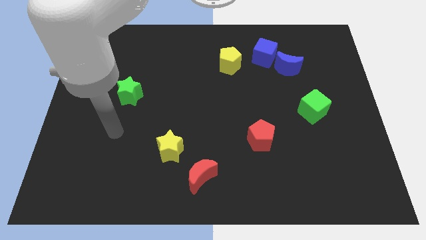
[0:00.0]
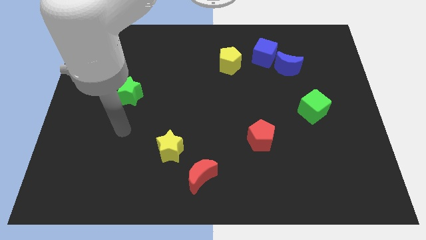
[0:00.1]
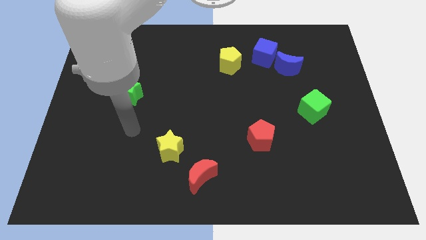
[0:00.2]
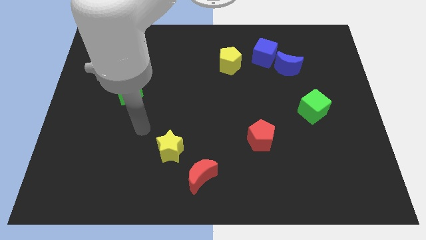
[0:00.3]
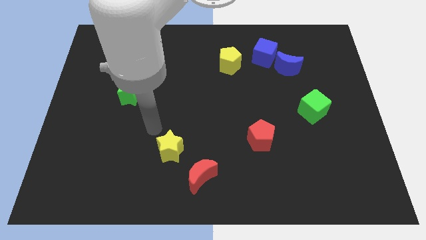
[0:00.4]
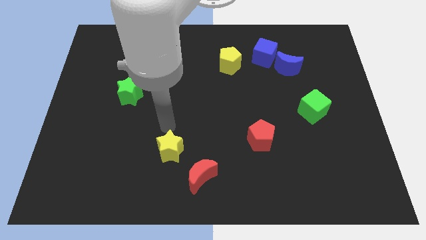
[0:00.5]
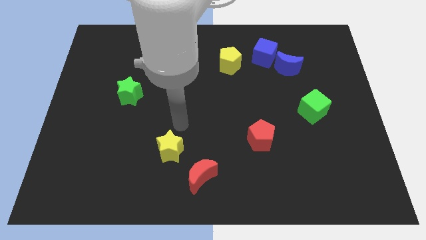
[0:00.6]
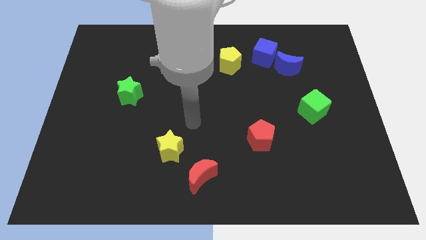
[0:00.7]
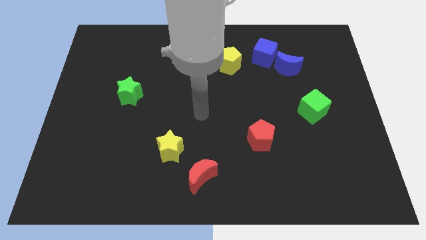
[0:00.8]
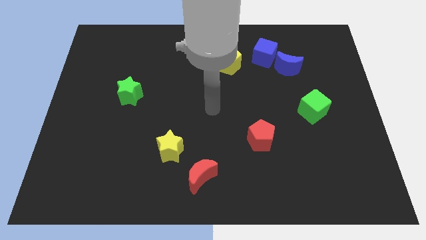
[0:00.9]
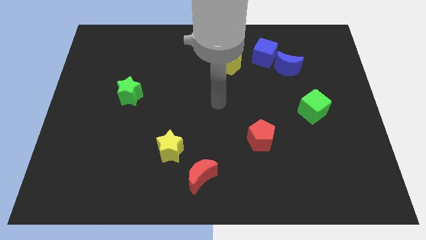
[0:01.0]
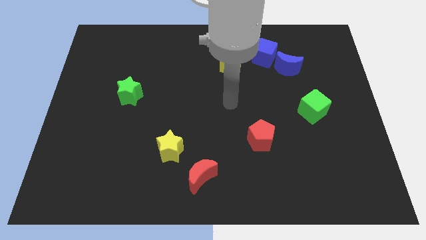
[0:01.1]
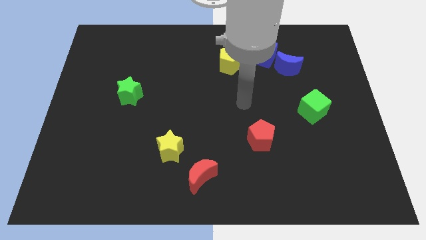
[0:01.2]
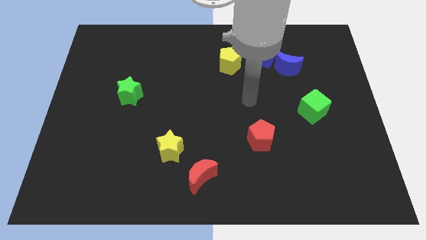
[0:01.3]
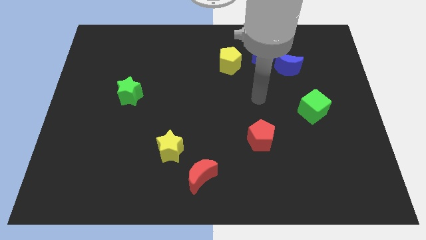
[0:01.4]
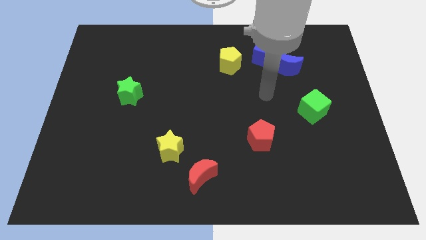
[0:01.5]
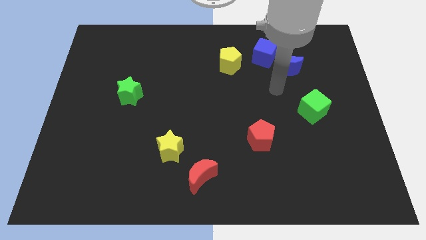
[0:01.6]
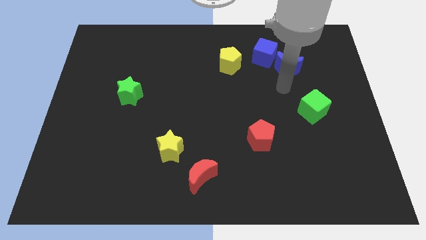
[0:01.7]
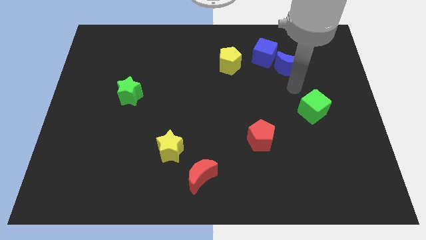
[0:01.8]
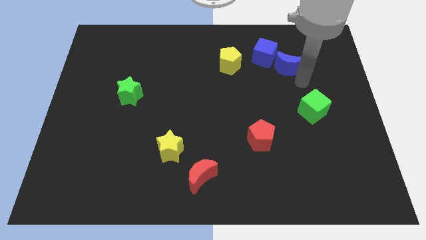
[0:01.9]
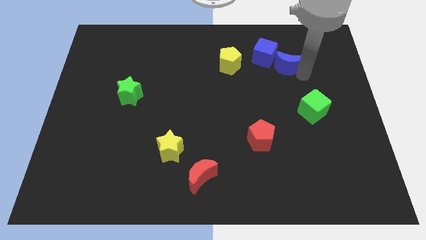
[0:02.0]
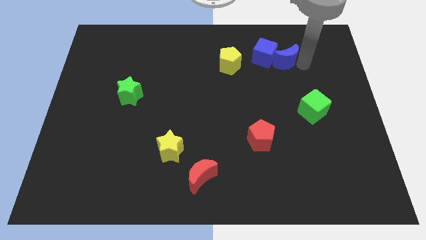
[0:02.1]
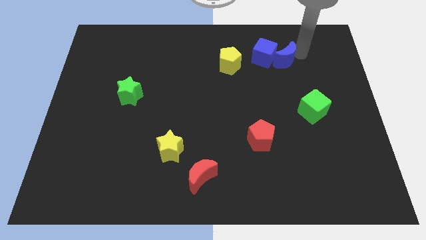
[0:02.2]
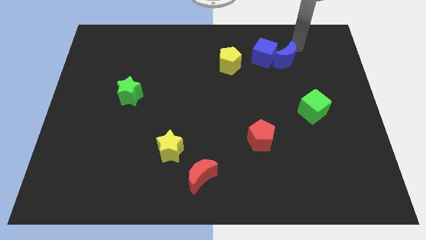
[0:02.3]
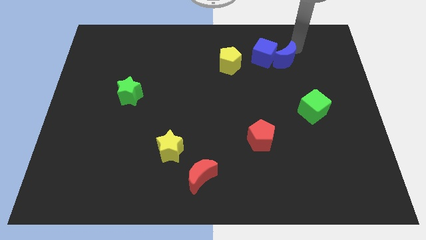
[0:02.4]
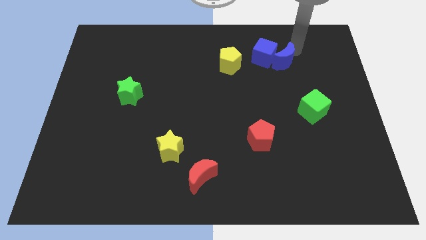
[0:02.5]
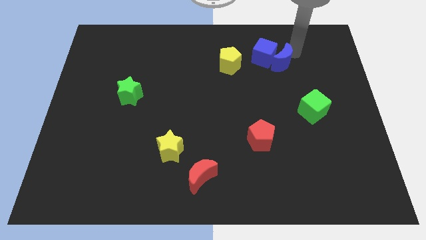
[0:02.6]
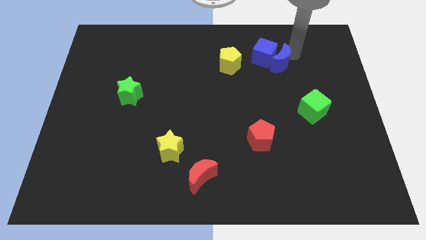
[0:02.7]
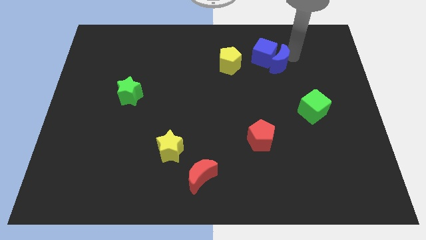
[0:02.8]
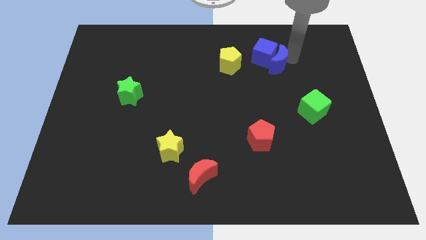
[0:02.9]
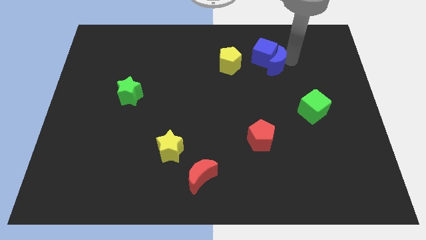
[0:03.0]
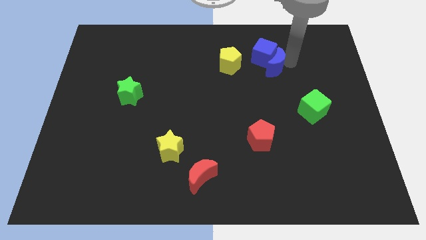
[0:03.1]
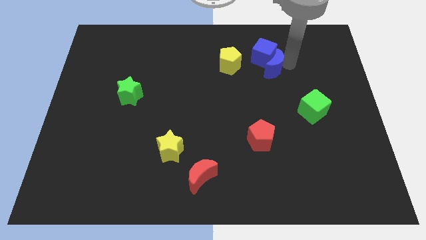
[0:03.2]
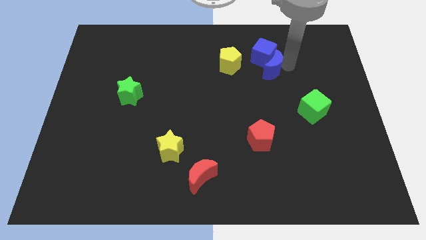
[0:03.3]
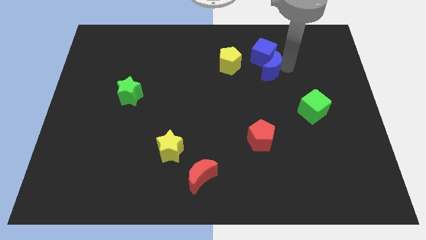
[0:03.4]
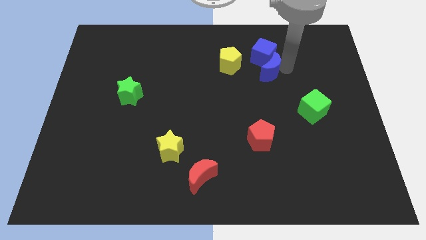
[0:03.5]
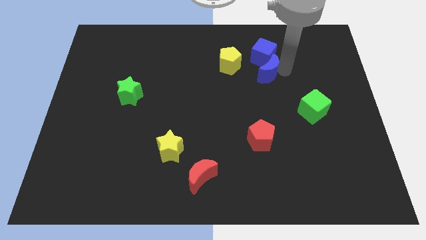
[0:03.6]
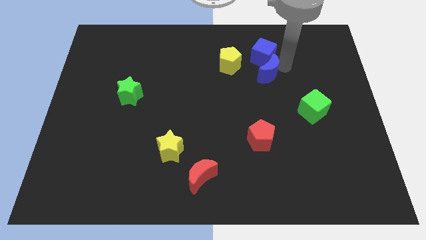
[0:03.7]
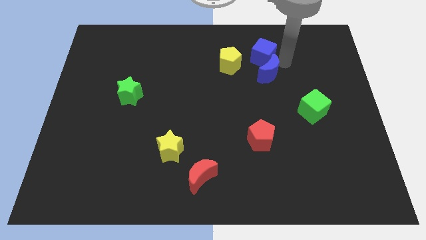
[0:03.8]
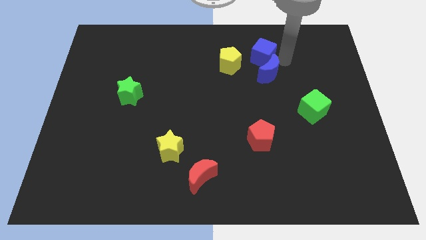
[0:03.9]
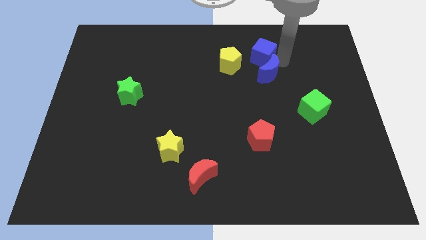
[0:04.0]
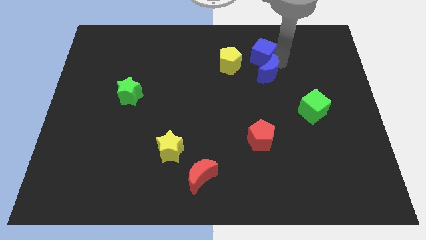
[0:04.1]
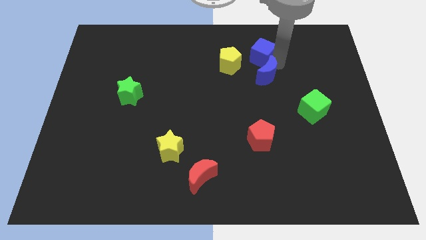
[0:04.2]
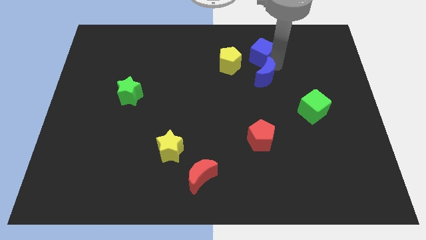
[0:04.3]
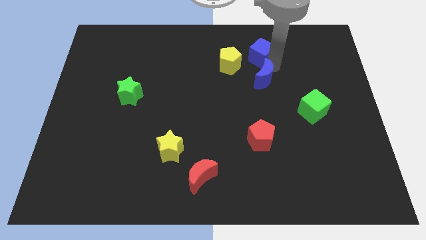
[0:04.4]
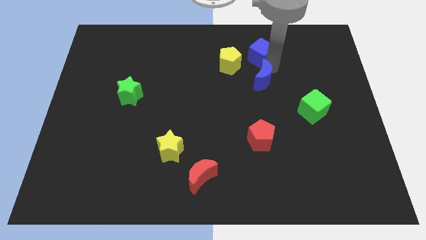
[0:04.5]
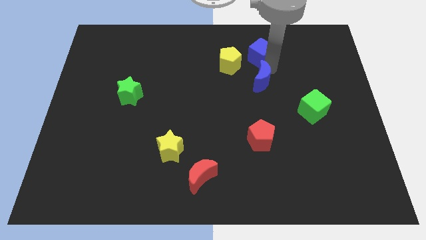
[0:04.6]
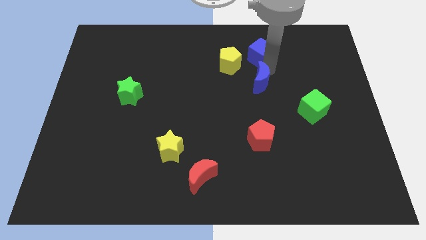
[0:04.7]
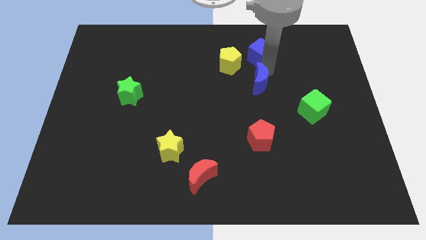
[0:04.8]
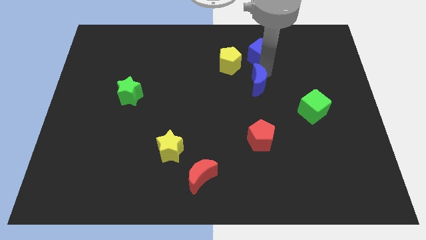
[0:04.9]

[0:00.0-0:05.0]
slide the blue moon to the left a bit

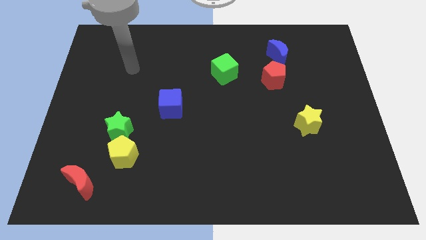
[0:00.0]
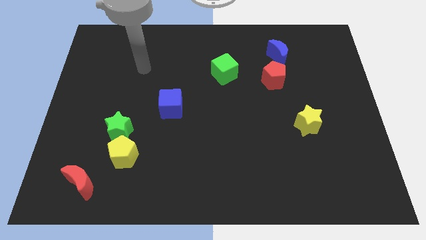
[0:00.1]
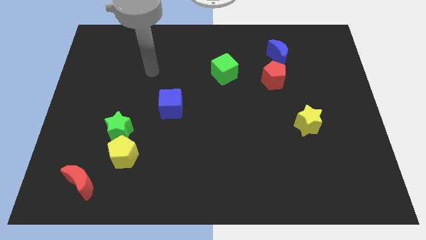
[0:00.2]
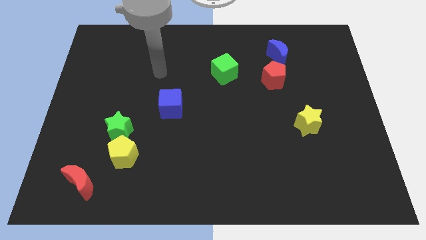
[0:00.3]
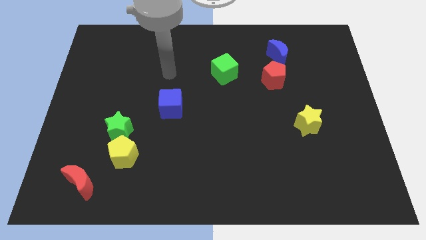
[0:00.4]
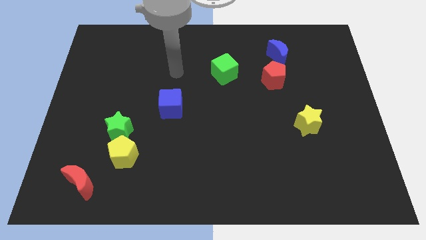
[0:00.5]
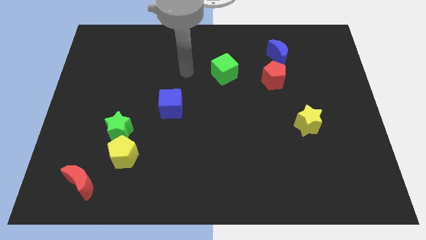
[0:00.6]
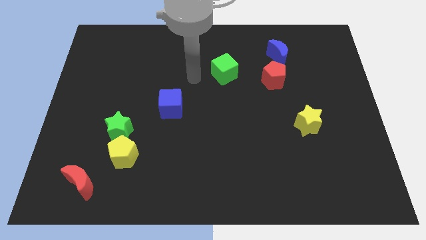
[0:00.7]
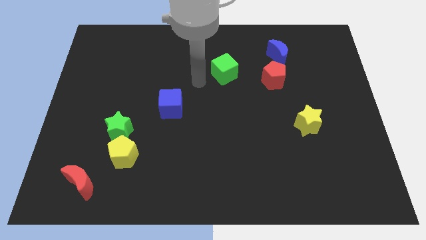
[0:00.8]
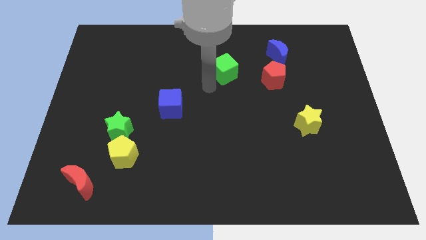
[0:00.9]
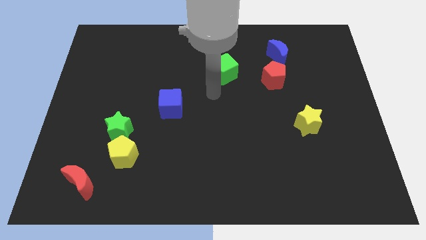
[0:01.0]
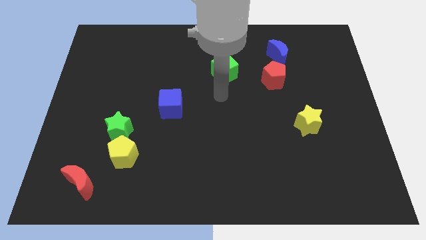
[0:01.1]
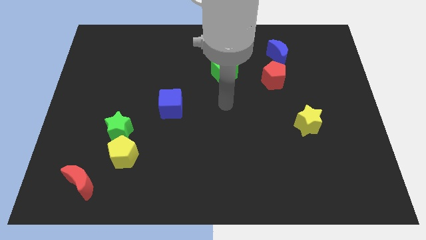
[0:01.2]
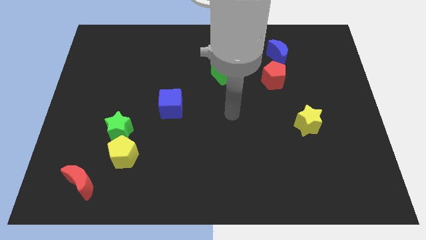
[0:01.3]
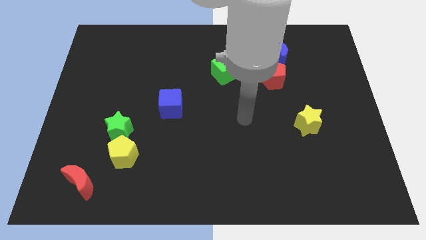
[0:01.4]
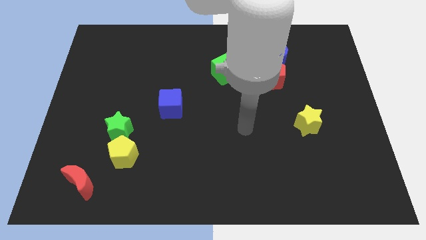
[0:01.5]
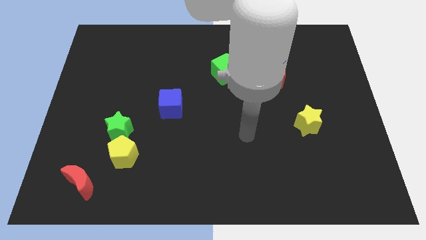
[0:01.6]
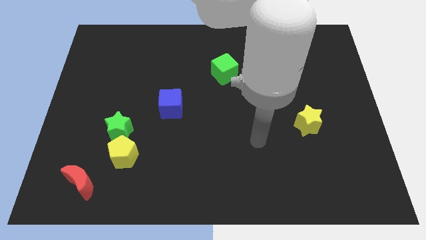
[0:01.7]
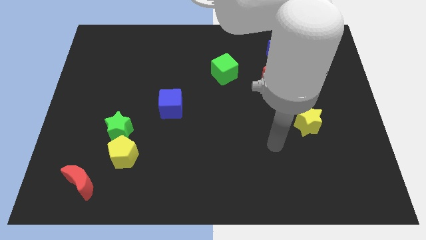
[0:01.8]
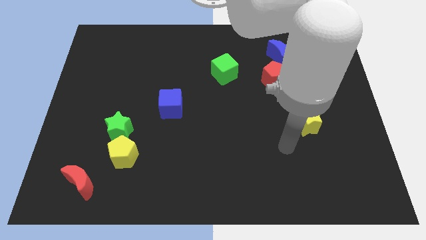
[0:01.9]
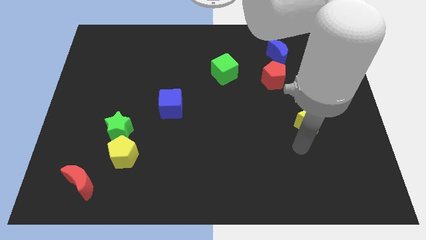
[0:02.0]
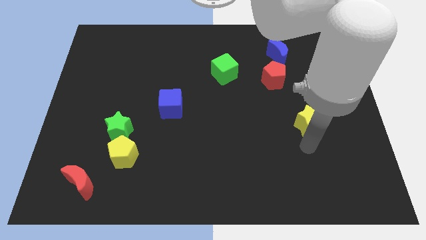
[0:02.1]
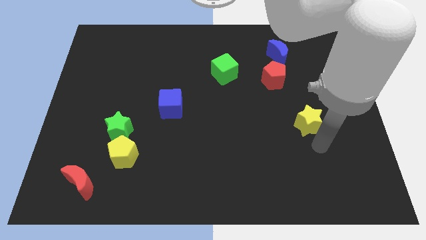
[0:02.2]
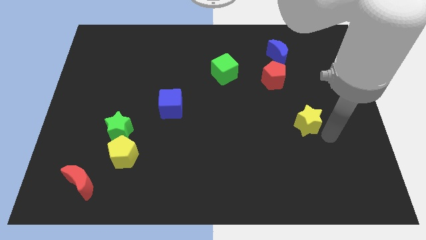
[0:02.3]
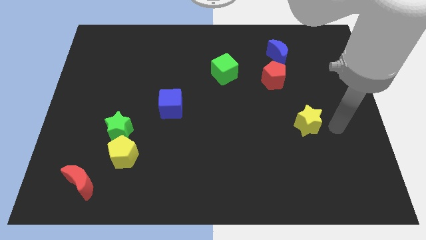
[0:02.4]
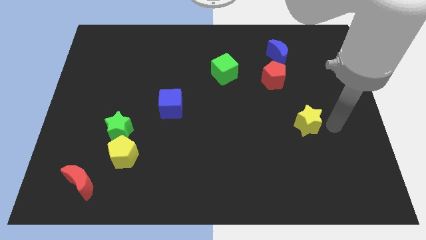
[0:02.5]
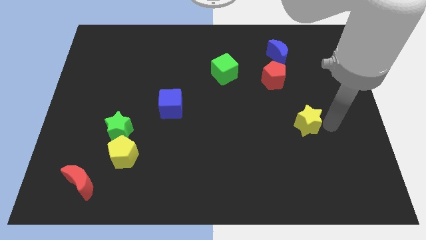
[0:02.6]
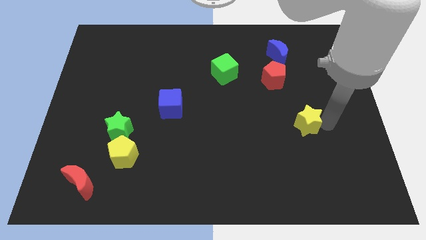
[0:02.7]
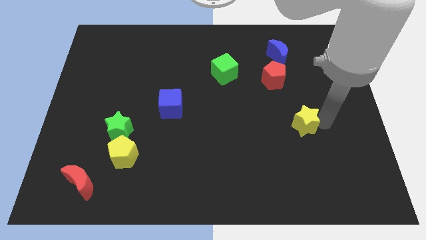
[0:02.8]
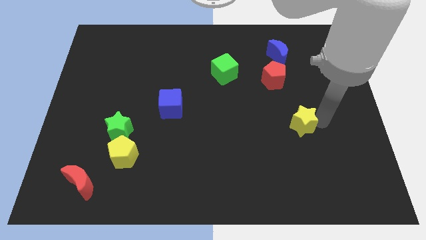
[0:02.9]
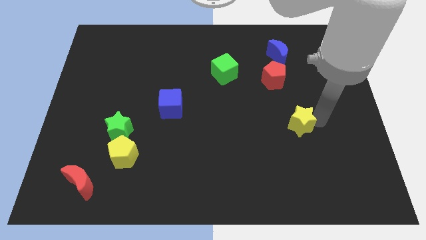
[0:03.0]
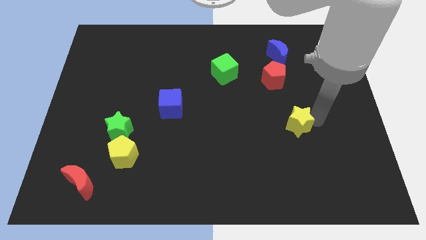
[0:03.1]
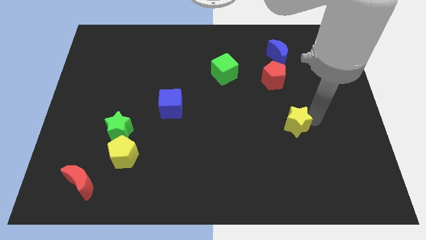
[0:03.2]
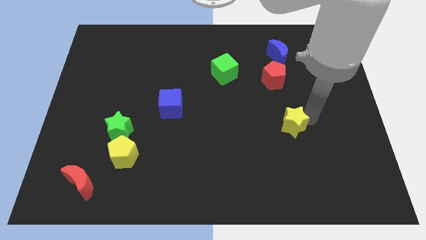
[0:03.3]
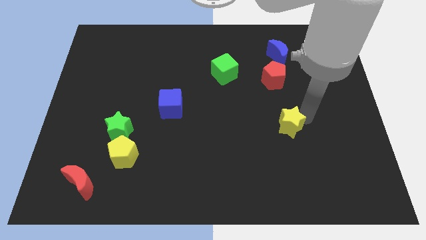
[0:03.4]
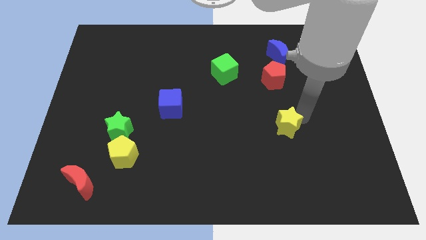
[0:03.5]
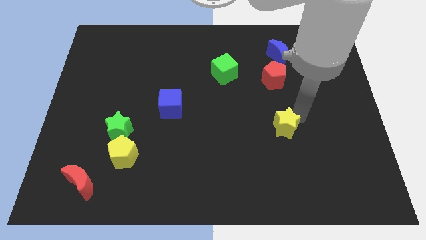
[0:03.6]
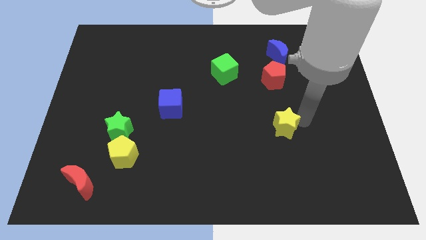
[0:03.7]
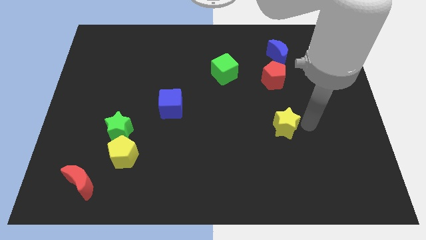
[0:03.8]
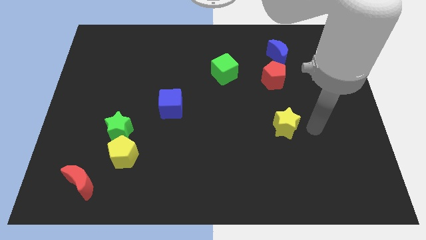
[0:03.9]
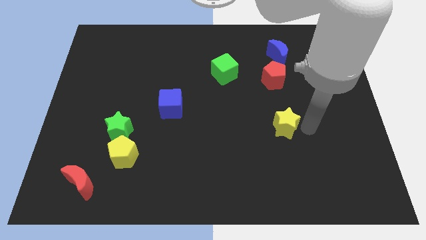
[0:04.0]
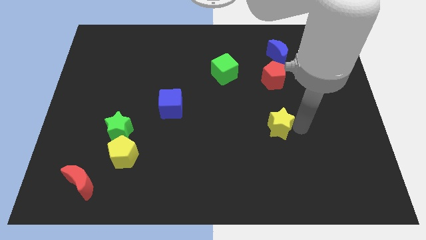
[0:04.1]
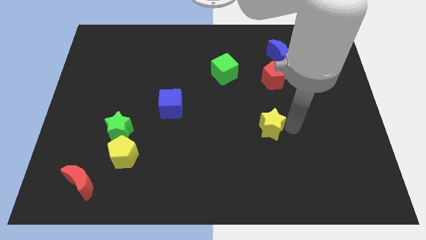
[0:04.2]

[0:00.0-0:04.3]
move the yellow star left a little
